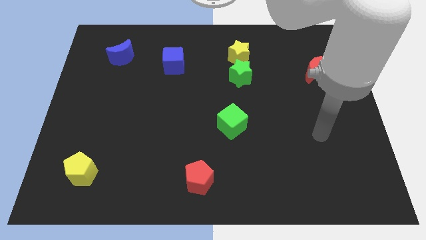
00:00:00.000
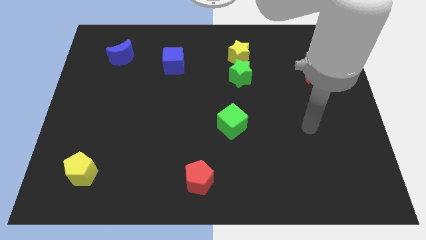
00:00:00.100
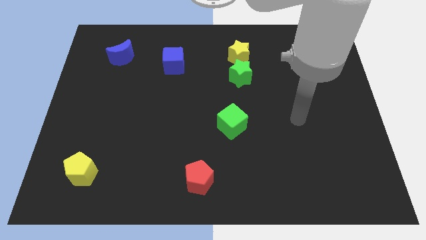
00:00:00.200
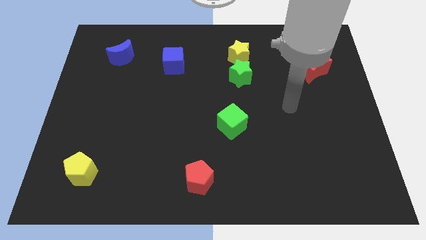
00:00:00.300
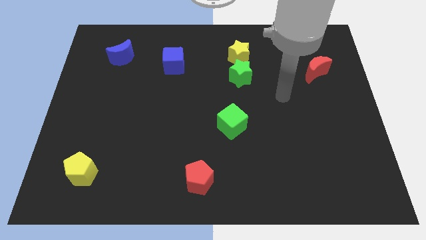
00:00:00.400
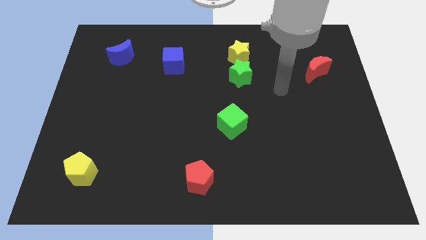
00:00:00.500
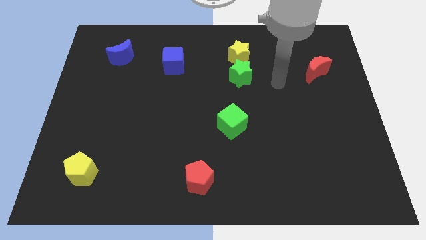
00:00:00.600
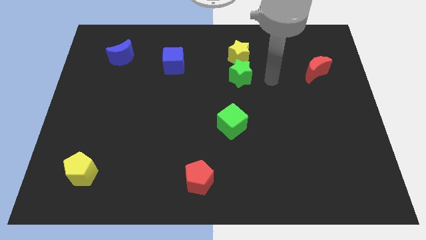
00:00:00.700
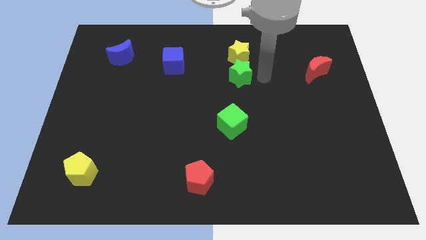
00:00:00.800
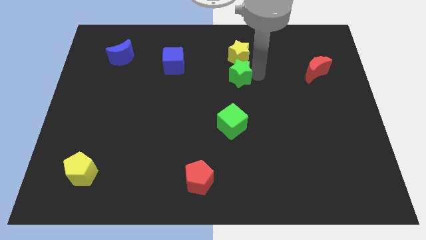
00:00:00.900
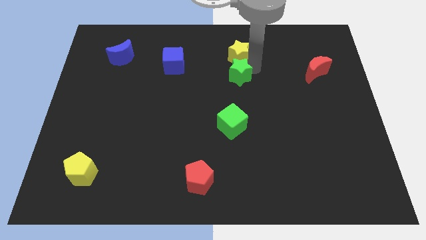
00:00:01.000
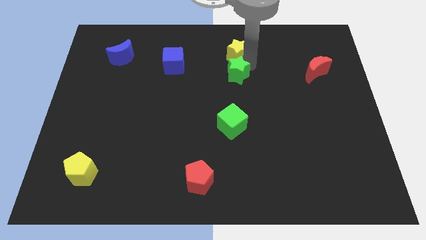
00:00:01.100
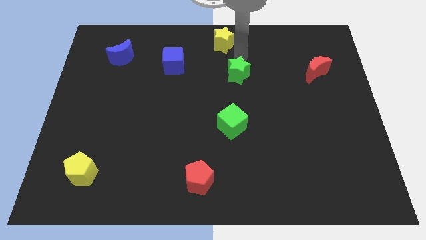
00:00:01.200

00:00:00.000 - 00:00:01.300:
separate the green star from the yellow star

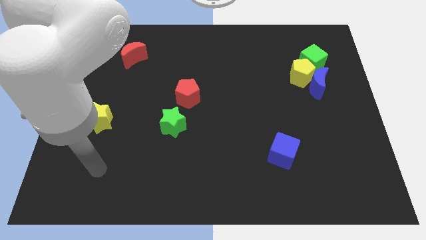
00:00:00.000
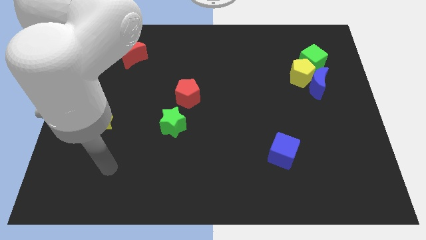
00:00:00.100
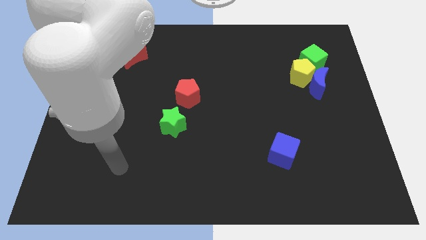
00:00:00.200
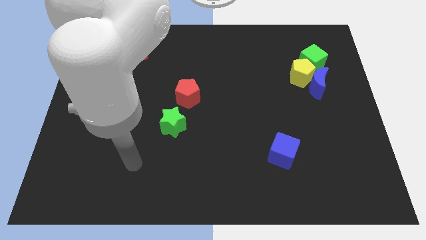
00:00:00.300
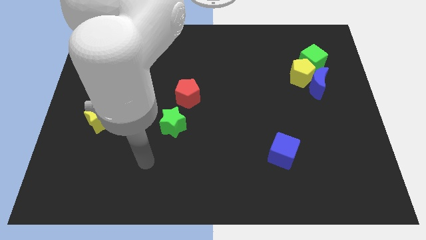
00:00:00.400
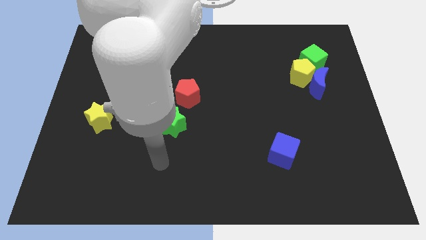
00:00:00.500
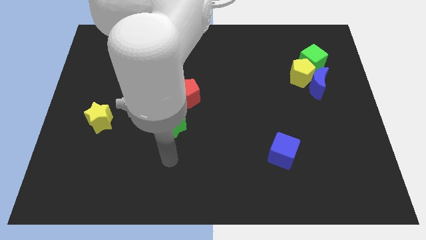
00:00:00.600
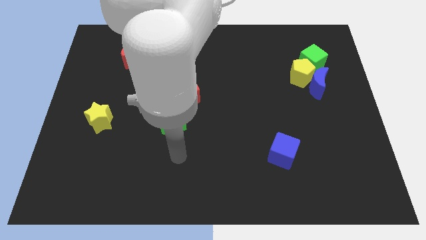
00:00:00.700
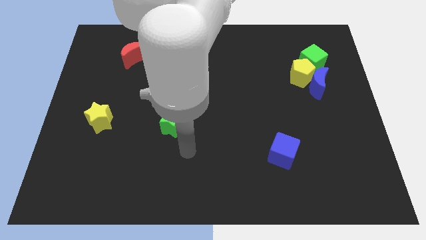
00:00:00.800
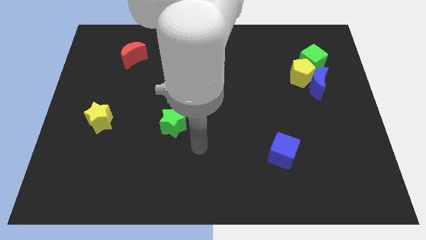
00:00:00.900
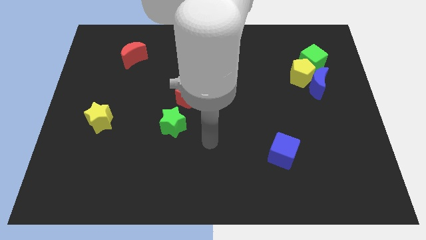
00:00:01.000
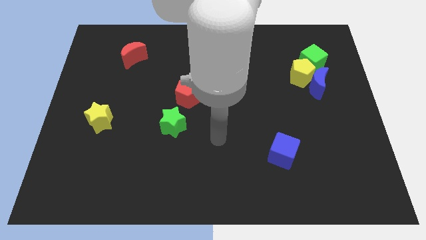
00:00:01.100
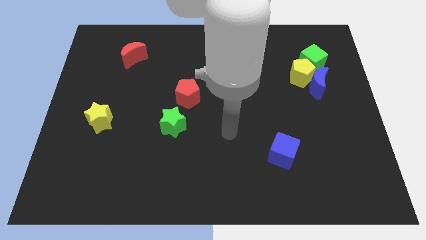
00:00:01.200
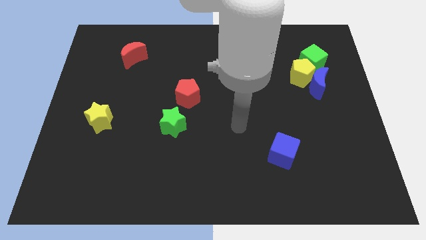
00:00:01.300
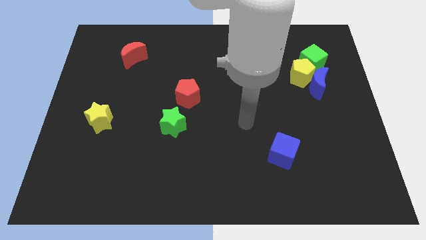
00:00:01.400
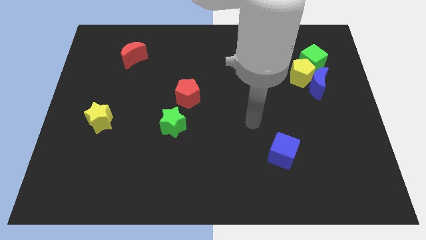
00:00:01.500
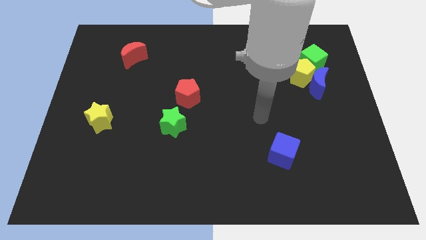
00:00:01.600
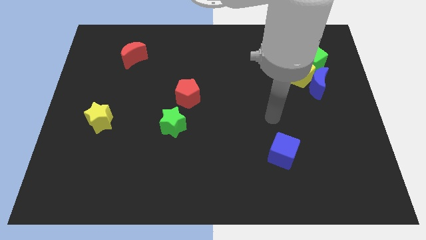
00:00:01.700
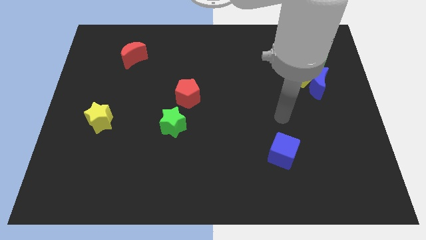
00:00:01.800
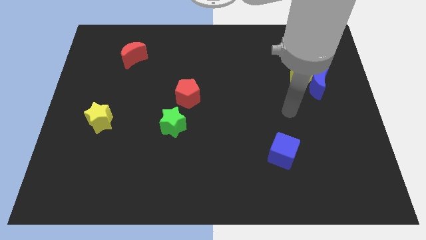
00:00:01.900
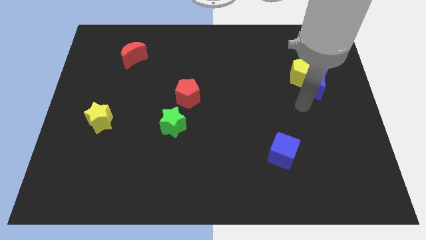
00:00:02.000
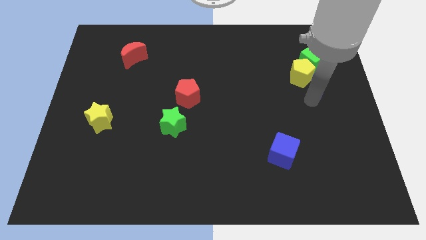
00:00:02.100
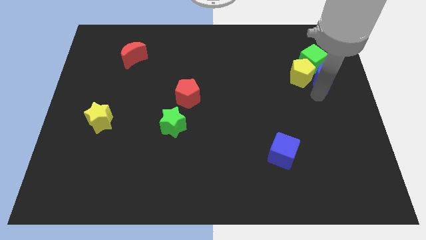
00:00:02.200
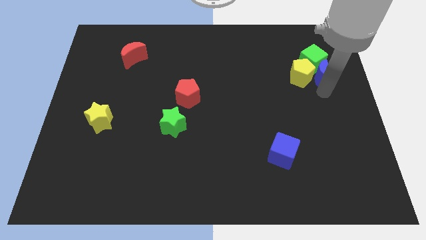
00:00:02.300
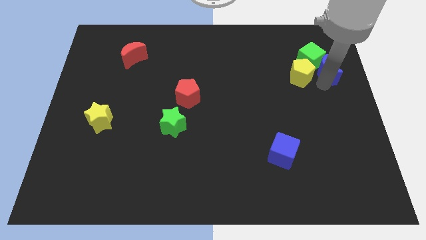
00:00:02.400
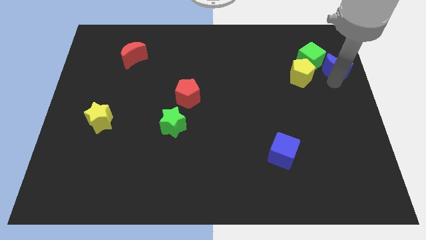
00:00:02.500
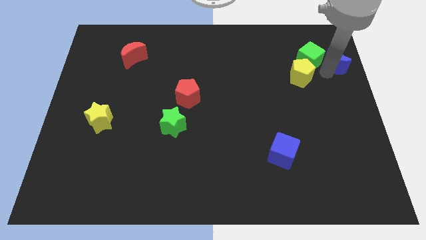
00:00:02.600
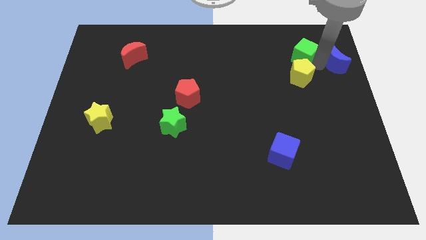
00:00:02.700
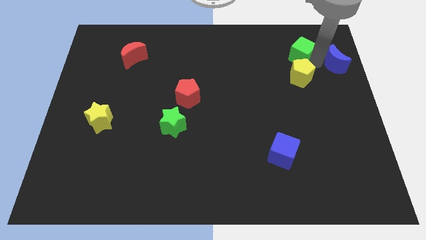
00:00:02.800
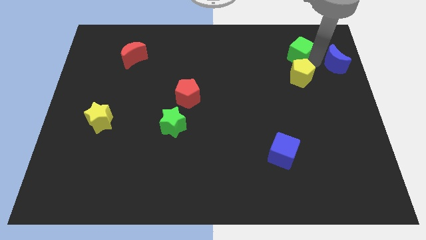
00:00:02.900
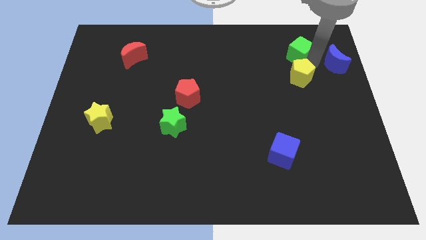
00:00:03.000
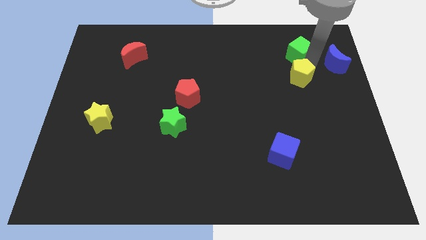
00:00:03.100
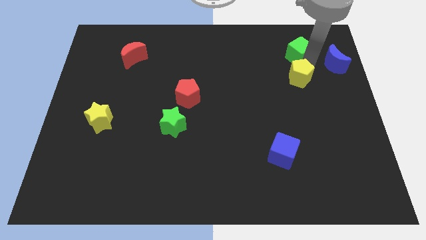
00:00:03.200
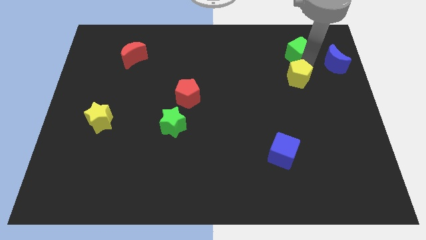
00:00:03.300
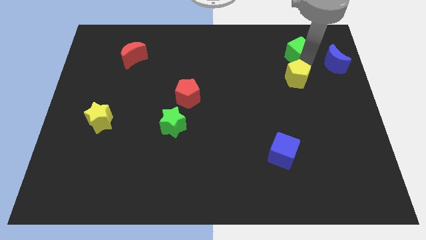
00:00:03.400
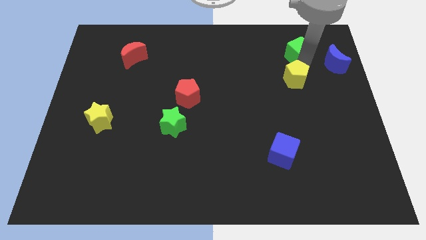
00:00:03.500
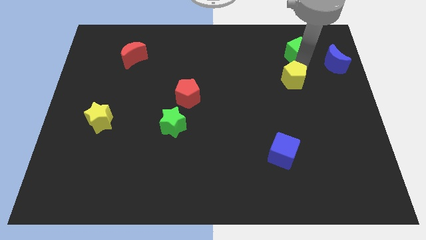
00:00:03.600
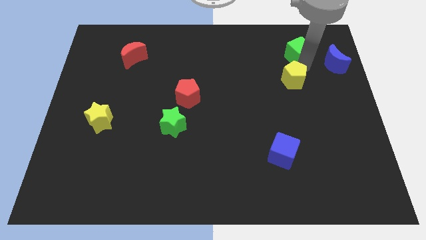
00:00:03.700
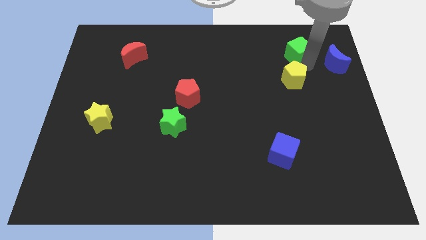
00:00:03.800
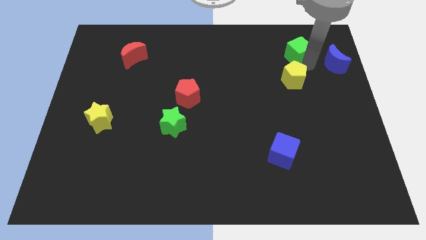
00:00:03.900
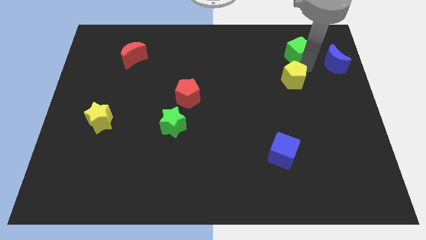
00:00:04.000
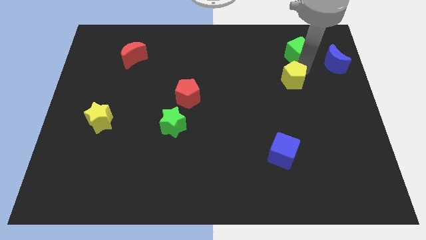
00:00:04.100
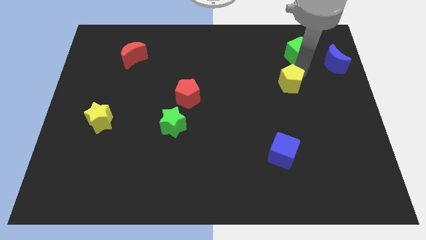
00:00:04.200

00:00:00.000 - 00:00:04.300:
move the yellow pentagon away from the blue moon and green cube

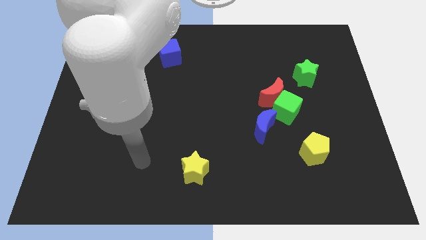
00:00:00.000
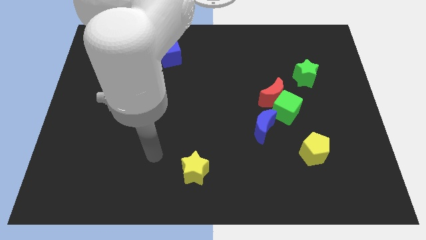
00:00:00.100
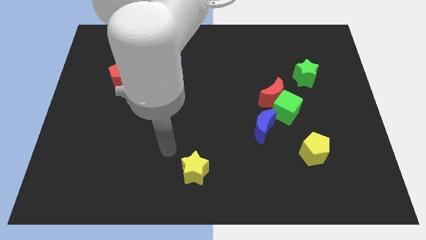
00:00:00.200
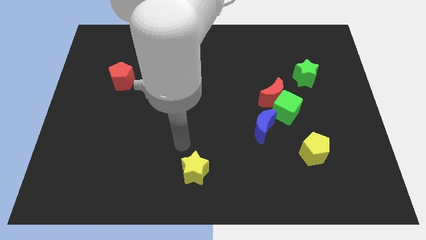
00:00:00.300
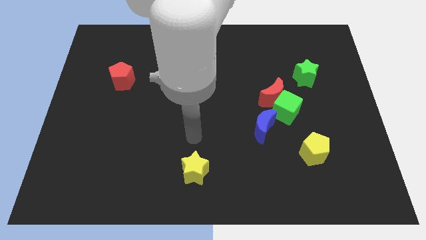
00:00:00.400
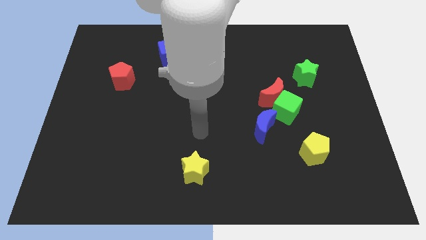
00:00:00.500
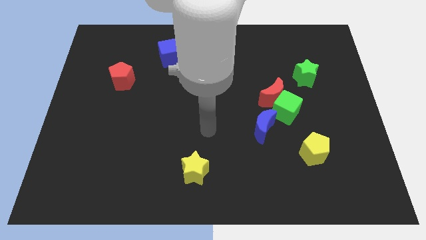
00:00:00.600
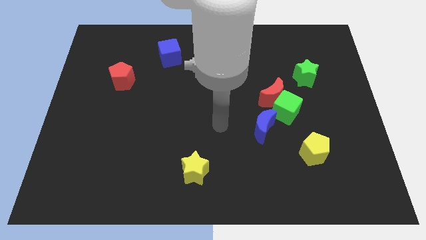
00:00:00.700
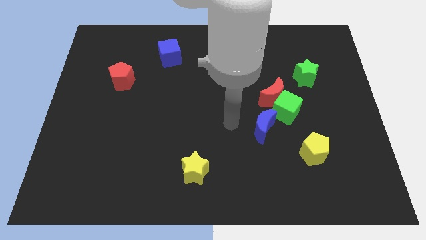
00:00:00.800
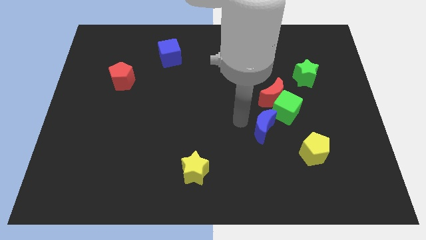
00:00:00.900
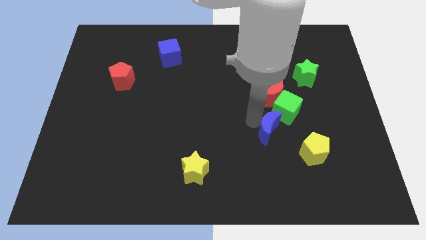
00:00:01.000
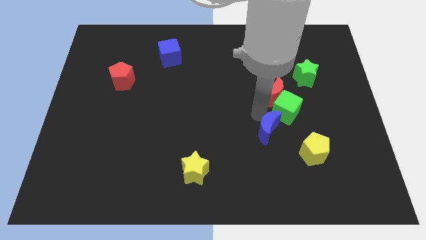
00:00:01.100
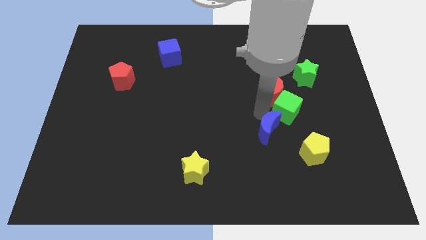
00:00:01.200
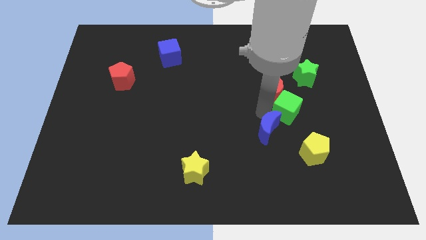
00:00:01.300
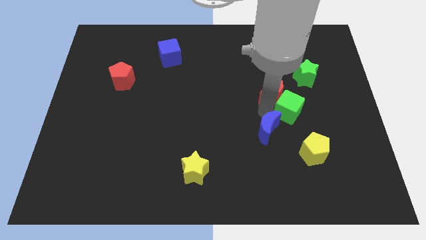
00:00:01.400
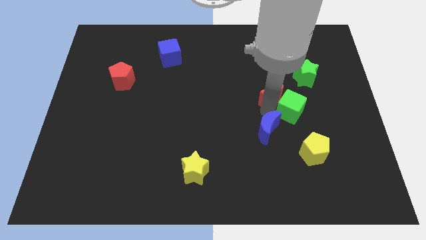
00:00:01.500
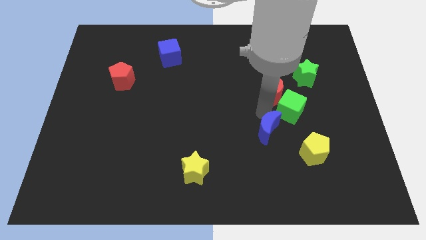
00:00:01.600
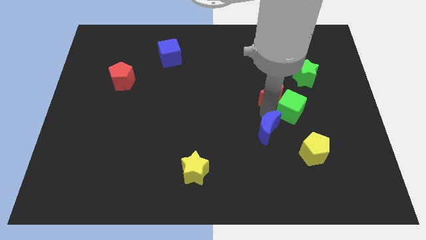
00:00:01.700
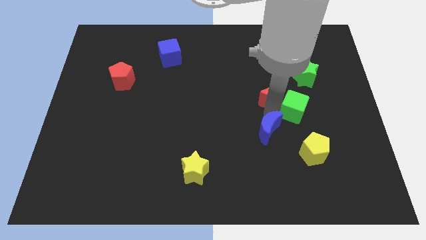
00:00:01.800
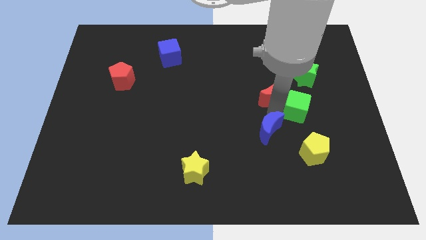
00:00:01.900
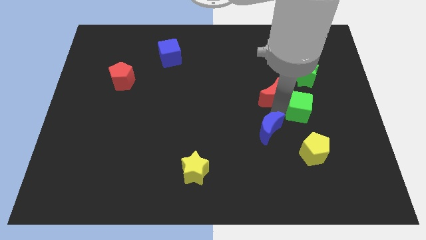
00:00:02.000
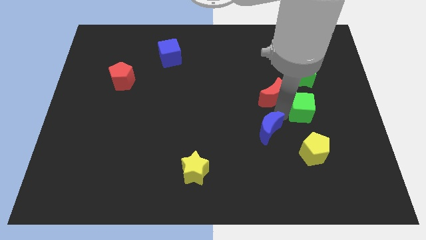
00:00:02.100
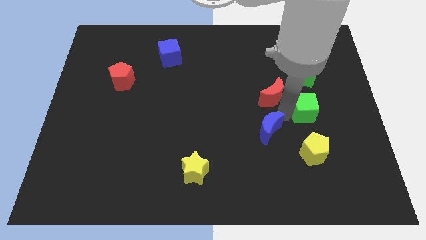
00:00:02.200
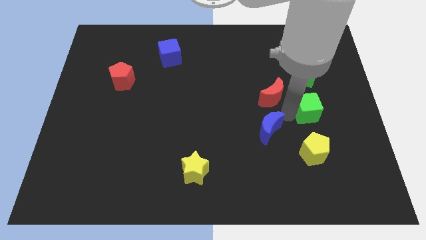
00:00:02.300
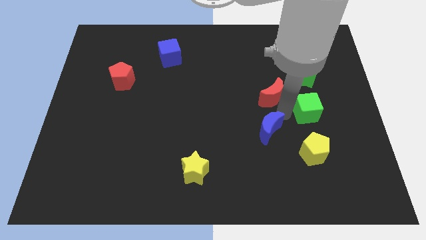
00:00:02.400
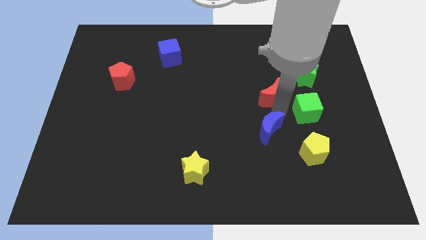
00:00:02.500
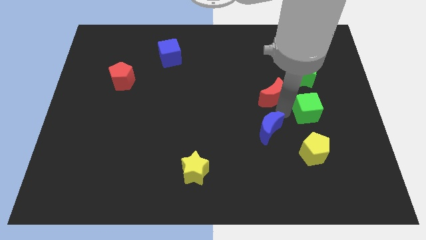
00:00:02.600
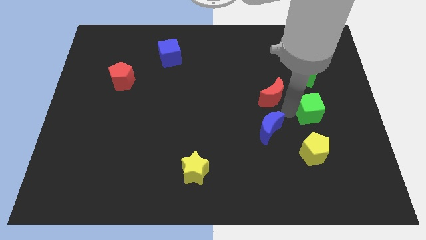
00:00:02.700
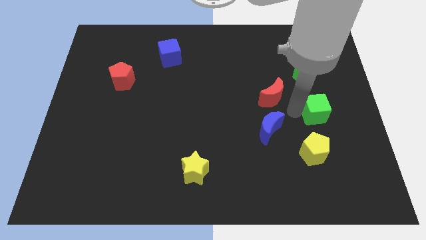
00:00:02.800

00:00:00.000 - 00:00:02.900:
separate the green cube from the red moon and blue moon

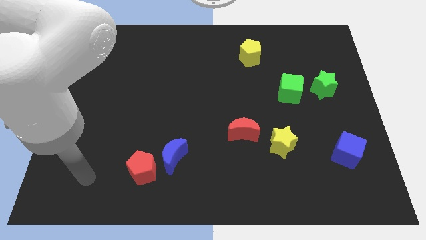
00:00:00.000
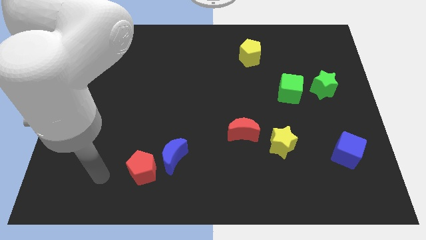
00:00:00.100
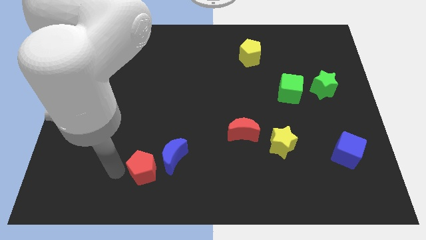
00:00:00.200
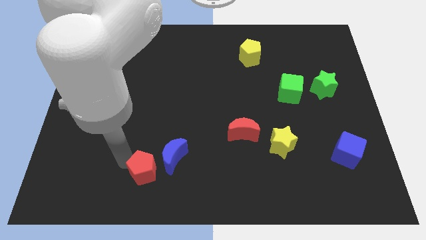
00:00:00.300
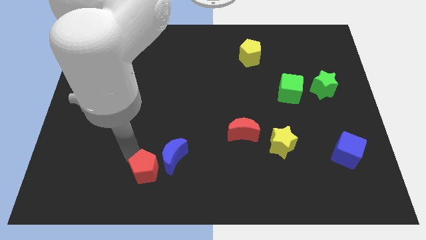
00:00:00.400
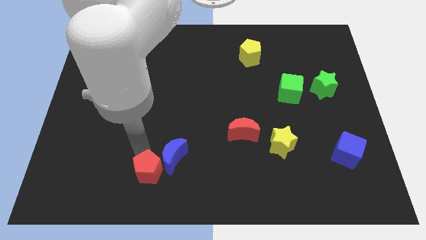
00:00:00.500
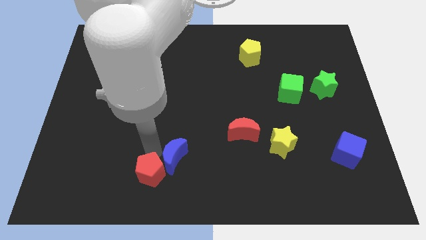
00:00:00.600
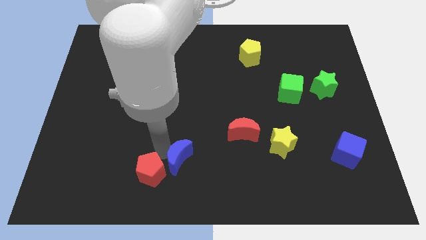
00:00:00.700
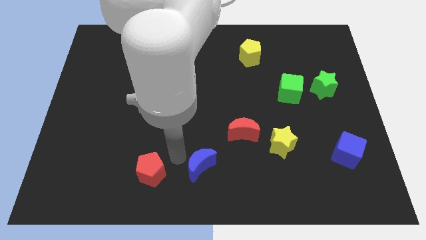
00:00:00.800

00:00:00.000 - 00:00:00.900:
pull the red pentagon apart from the blue moon
